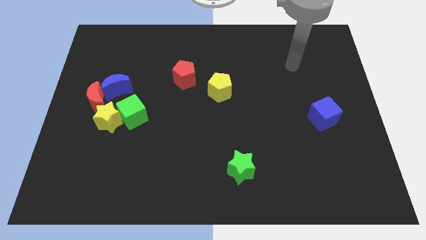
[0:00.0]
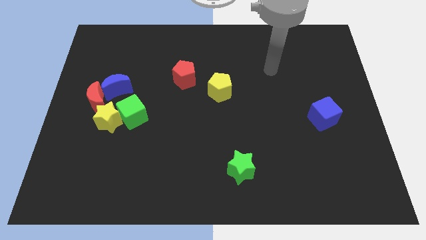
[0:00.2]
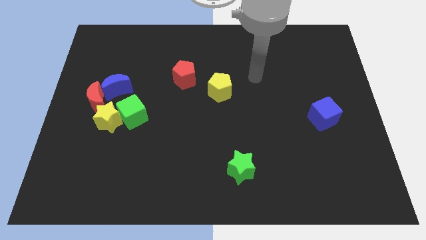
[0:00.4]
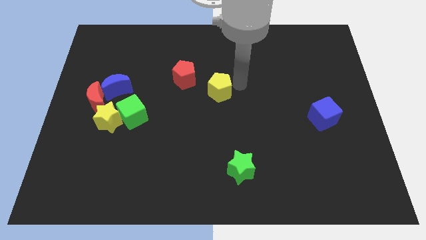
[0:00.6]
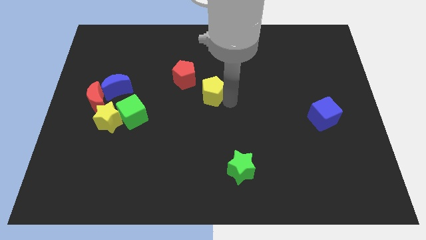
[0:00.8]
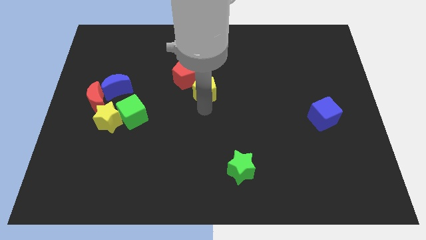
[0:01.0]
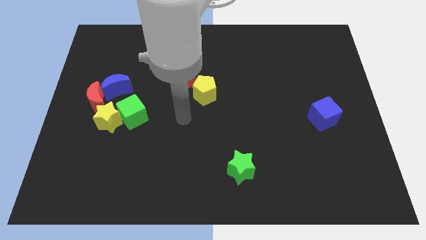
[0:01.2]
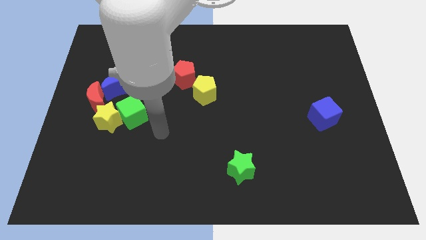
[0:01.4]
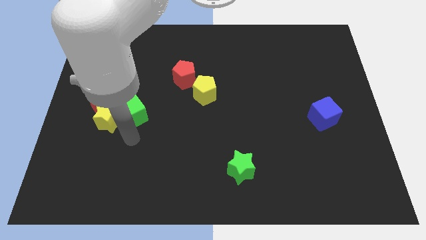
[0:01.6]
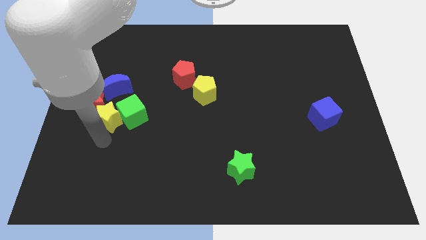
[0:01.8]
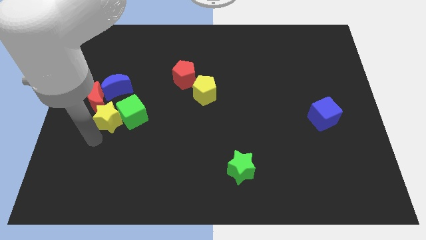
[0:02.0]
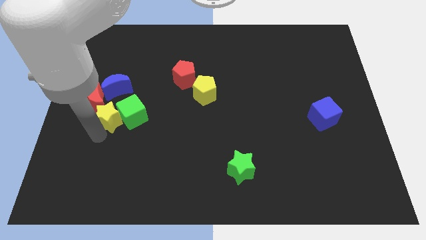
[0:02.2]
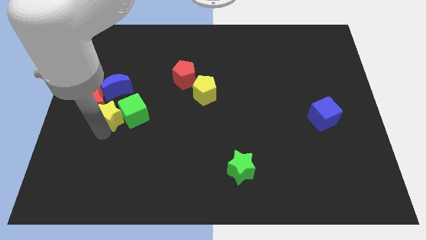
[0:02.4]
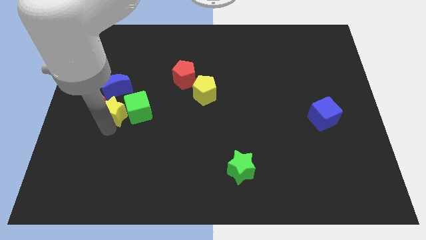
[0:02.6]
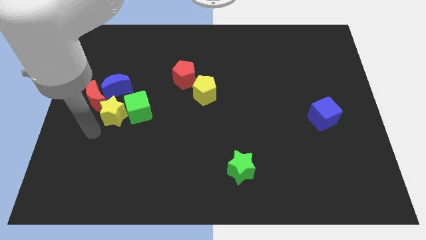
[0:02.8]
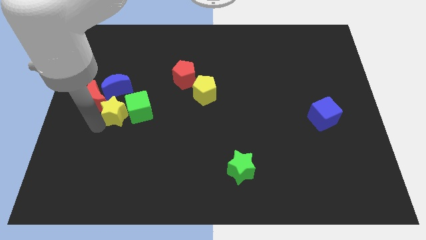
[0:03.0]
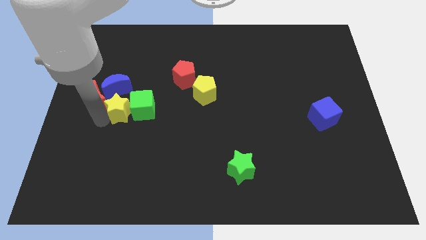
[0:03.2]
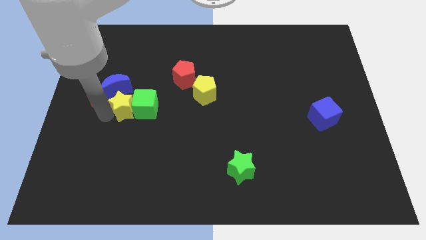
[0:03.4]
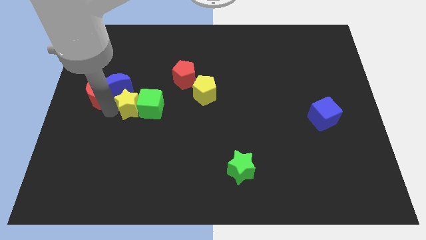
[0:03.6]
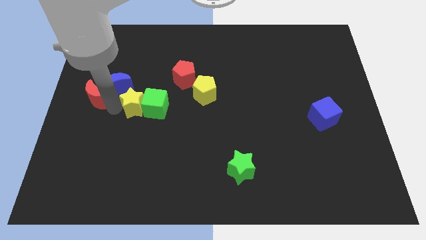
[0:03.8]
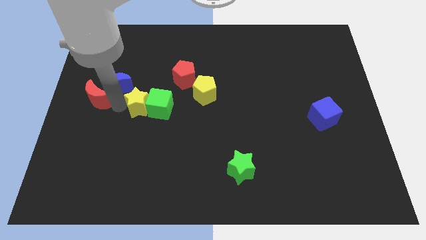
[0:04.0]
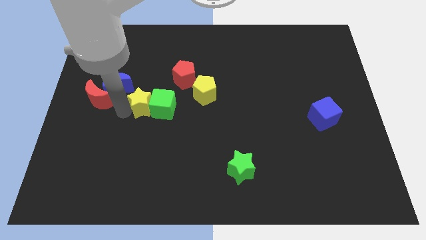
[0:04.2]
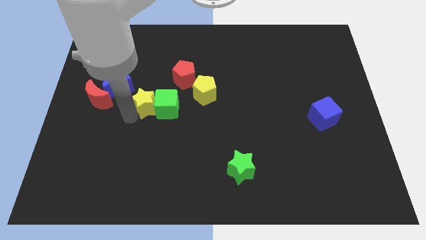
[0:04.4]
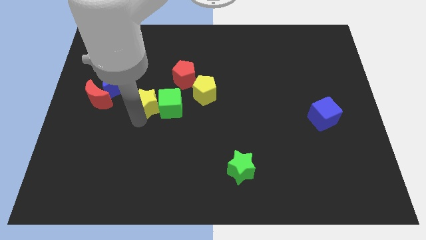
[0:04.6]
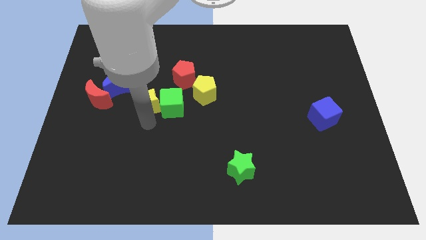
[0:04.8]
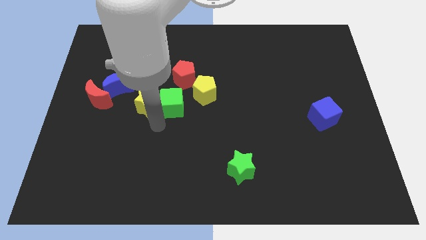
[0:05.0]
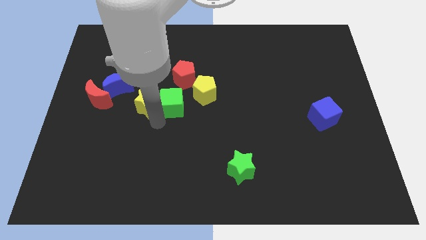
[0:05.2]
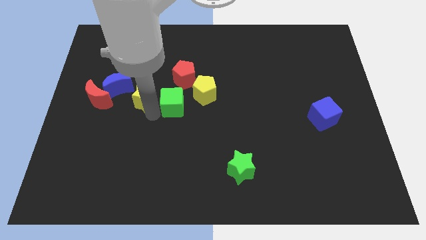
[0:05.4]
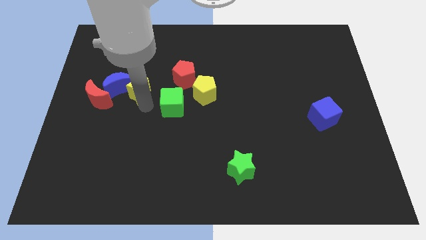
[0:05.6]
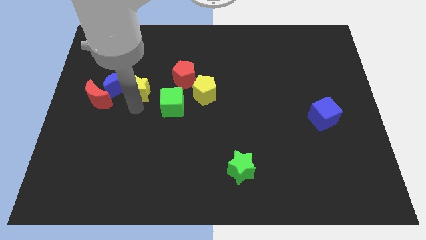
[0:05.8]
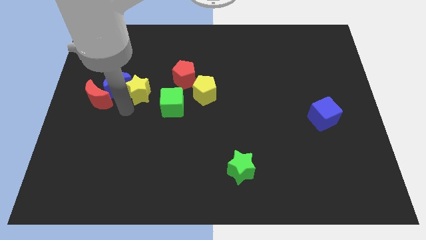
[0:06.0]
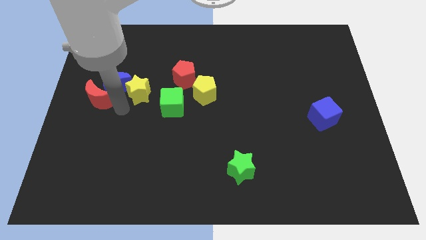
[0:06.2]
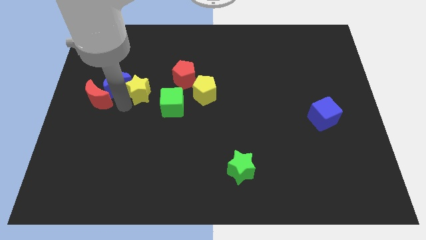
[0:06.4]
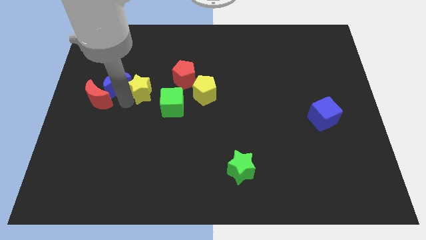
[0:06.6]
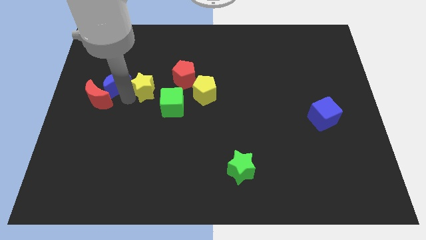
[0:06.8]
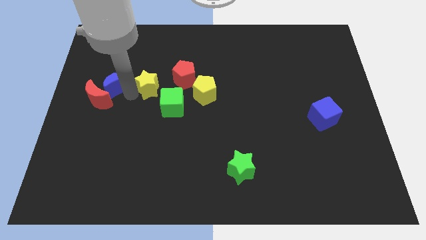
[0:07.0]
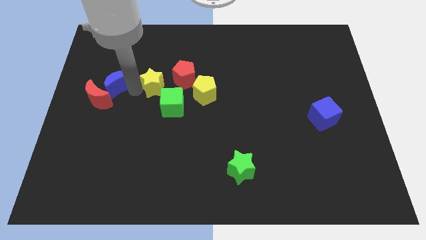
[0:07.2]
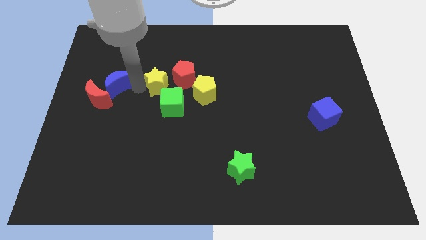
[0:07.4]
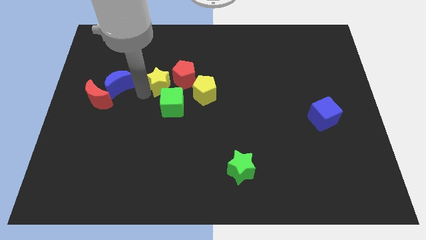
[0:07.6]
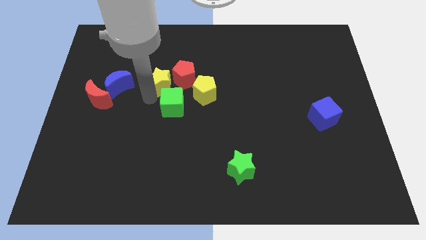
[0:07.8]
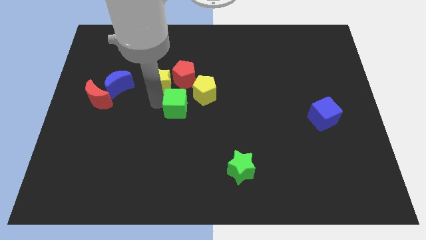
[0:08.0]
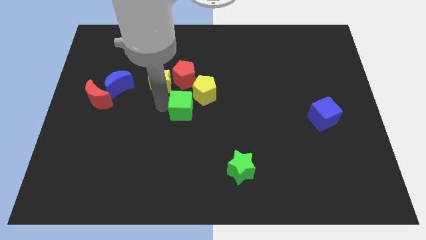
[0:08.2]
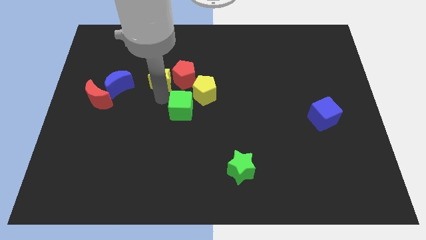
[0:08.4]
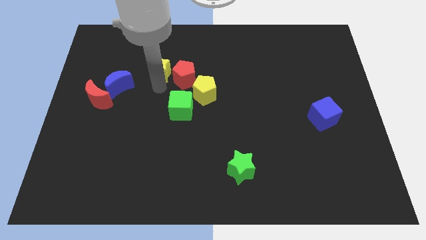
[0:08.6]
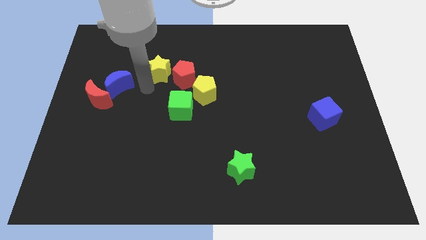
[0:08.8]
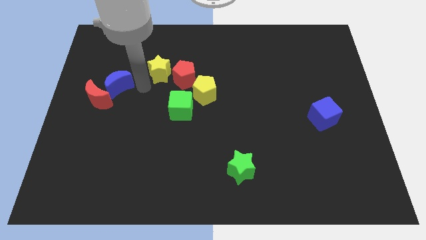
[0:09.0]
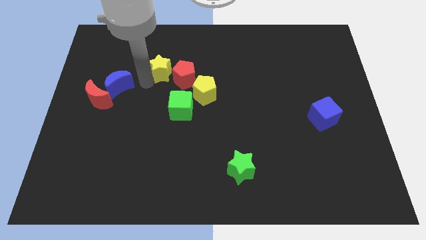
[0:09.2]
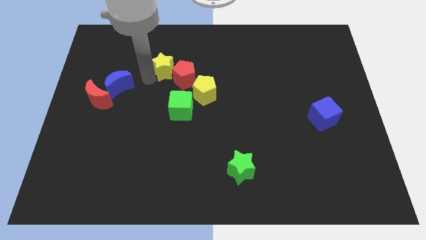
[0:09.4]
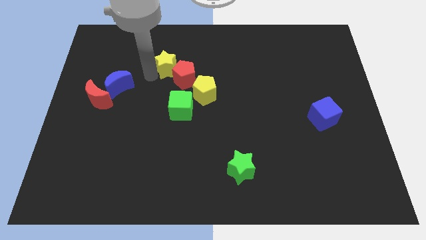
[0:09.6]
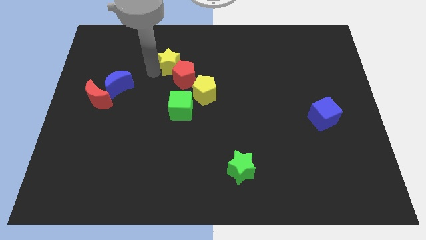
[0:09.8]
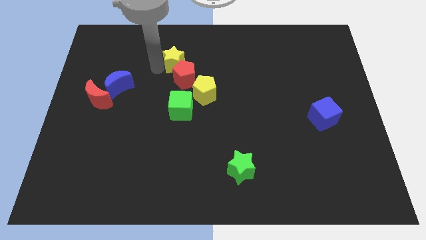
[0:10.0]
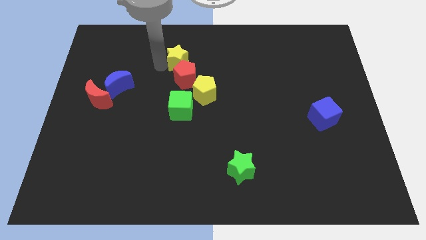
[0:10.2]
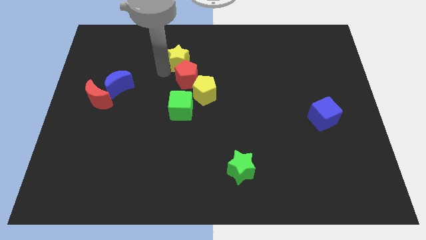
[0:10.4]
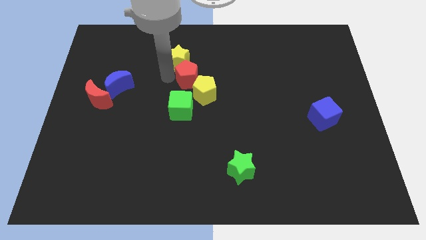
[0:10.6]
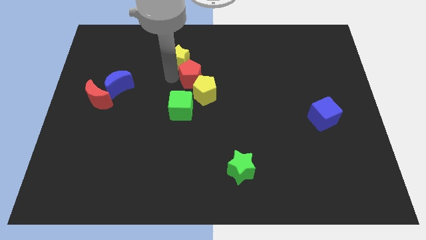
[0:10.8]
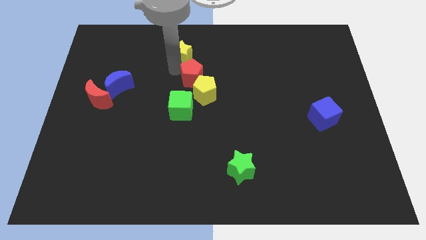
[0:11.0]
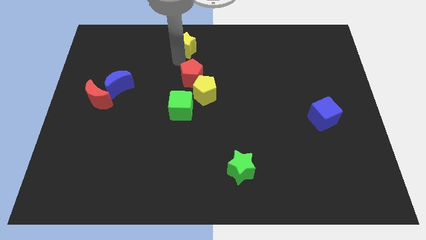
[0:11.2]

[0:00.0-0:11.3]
move the yellow star to the top side

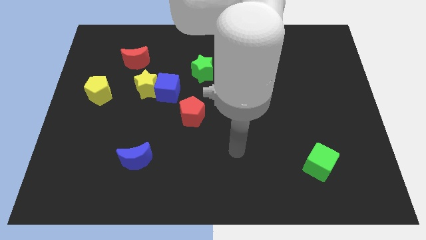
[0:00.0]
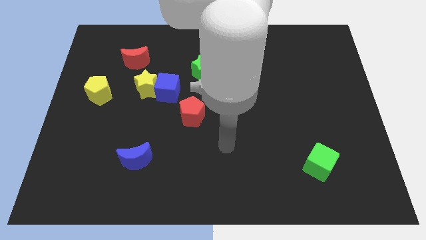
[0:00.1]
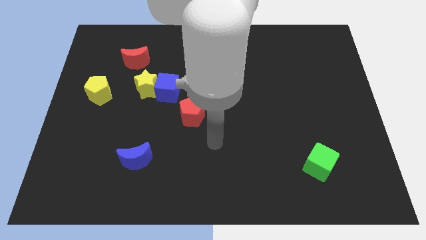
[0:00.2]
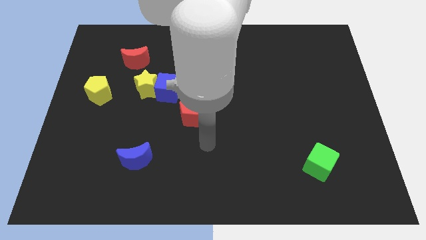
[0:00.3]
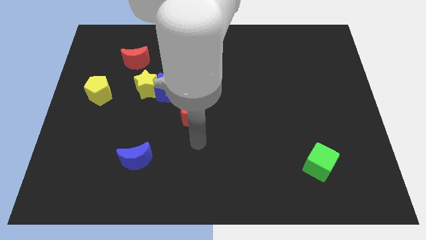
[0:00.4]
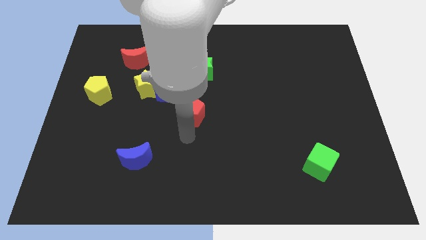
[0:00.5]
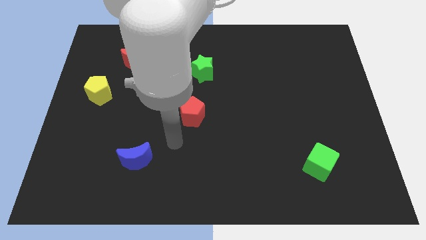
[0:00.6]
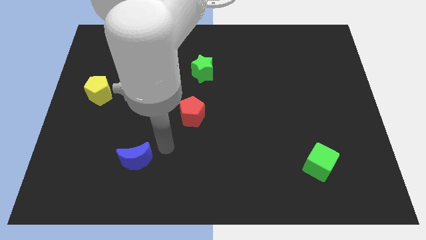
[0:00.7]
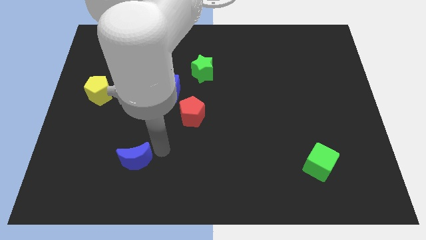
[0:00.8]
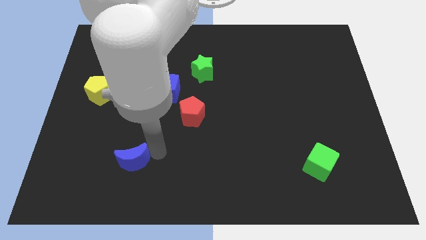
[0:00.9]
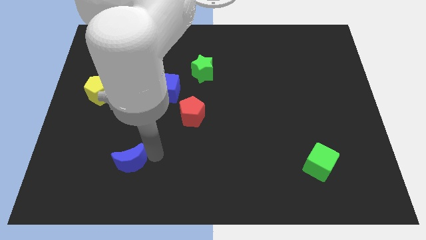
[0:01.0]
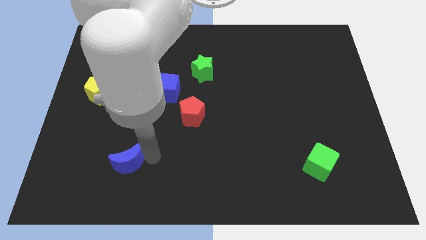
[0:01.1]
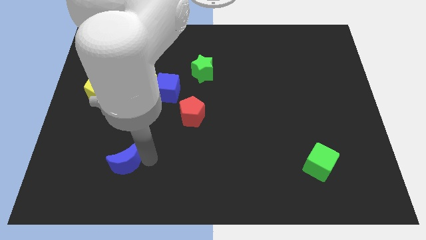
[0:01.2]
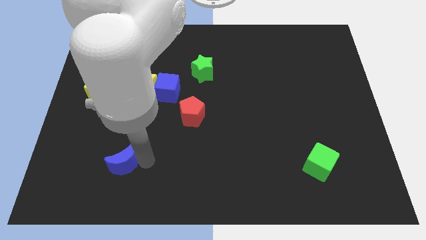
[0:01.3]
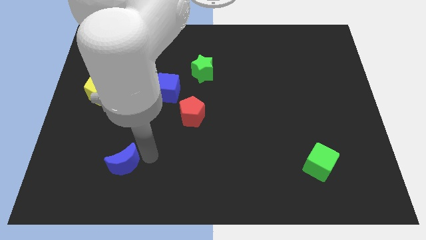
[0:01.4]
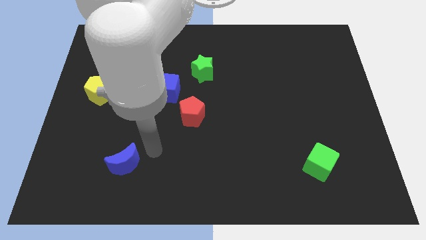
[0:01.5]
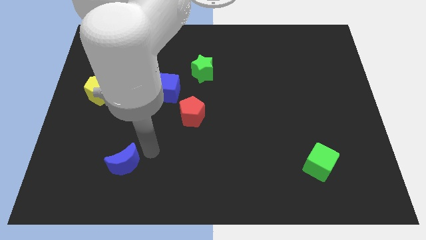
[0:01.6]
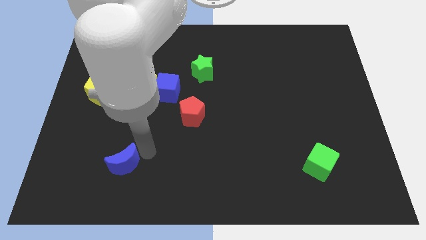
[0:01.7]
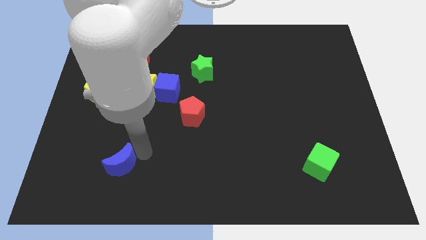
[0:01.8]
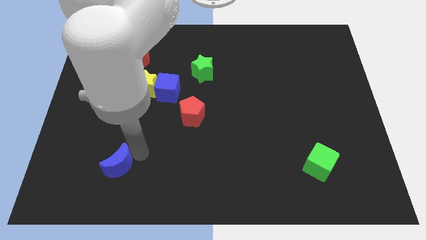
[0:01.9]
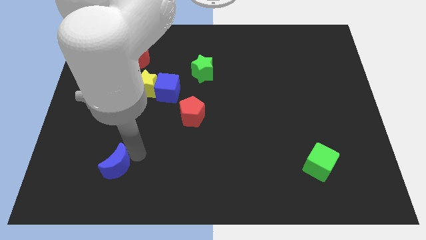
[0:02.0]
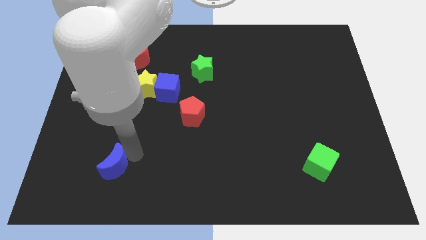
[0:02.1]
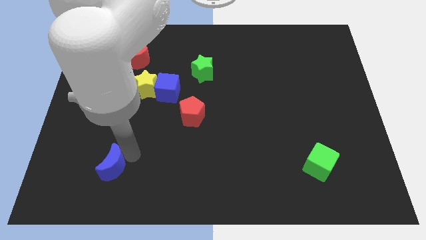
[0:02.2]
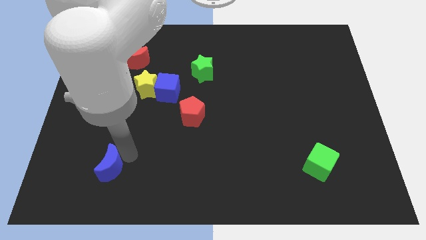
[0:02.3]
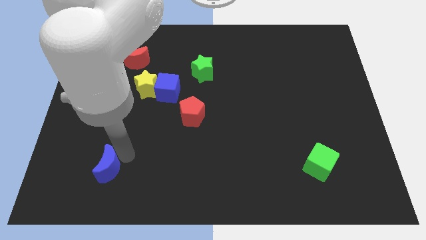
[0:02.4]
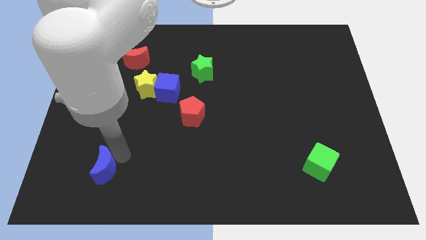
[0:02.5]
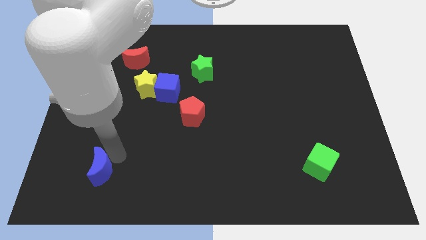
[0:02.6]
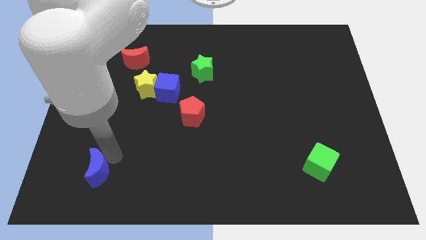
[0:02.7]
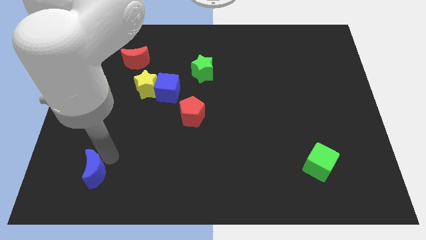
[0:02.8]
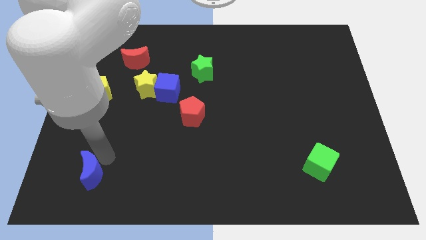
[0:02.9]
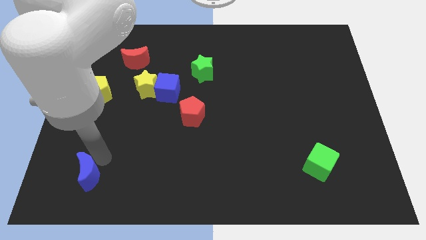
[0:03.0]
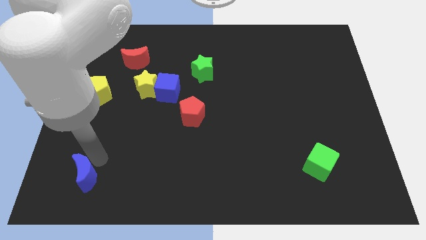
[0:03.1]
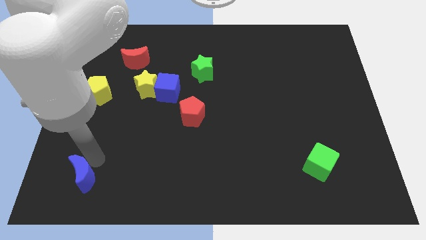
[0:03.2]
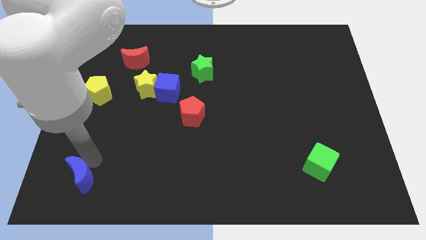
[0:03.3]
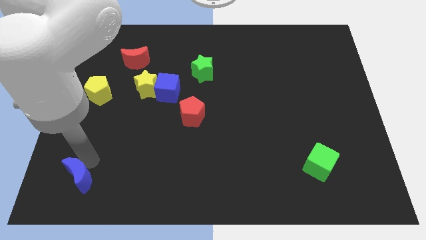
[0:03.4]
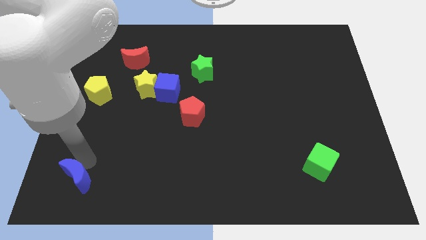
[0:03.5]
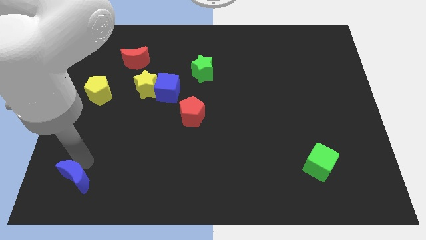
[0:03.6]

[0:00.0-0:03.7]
push the blue moon to the bottom left
